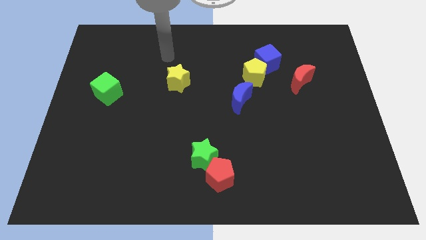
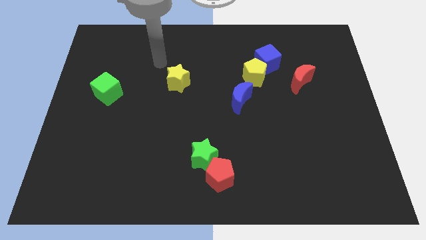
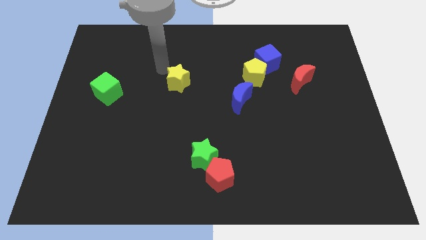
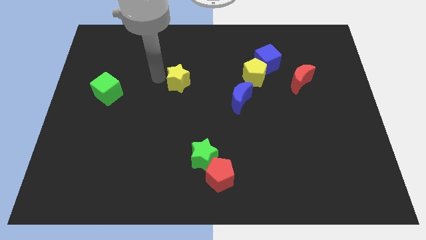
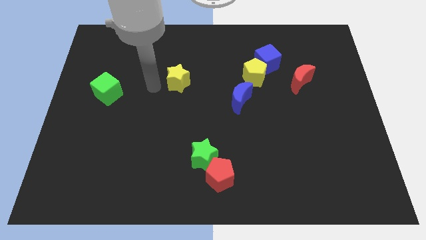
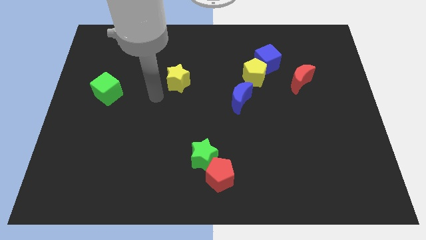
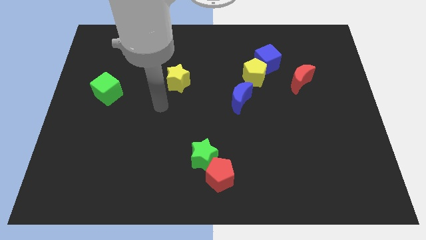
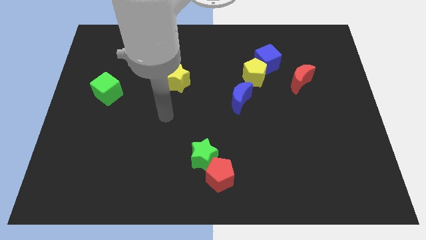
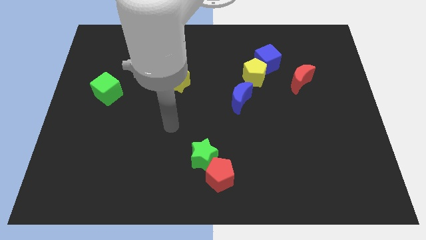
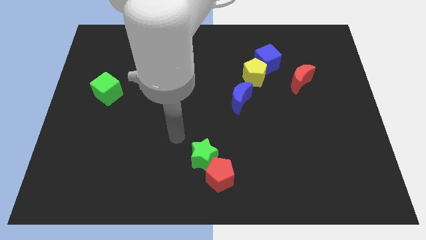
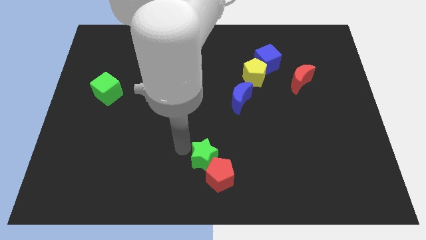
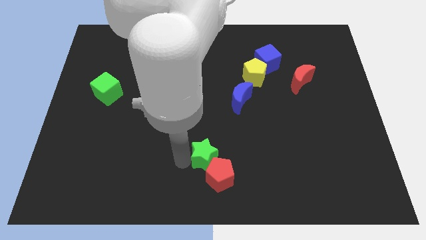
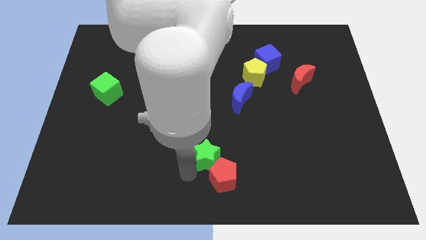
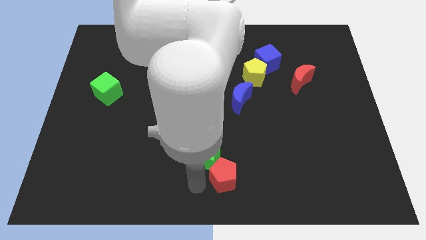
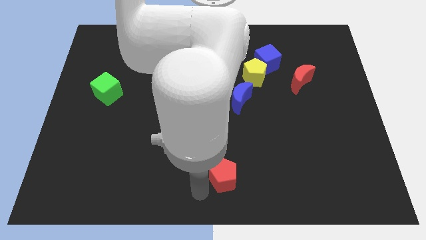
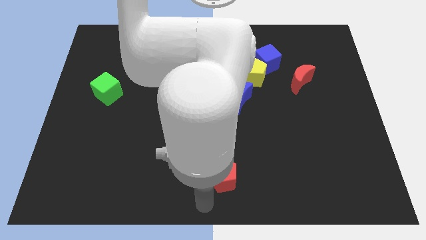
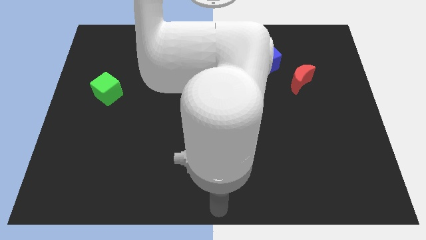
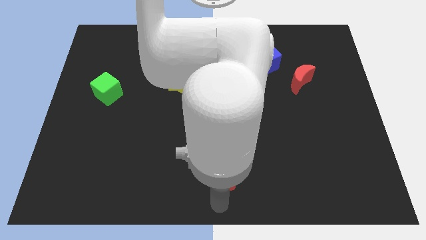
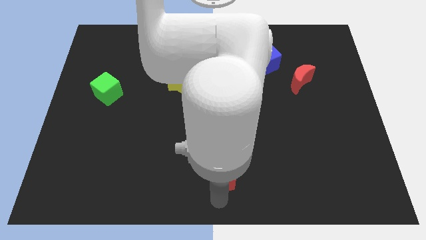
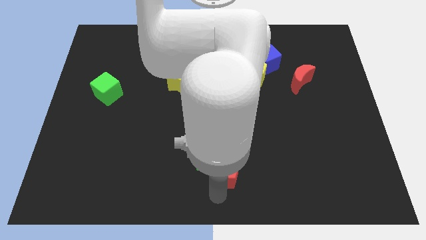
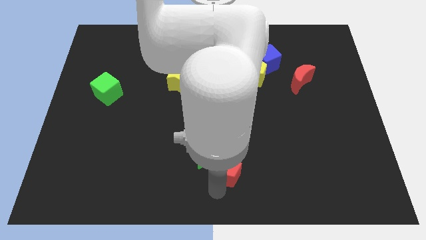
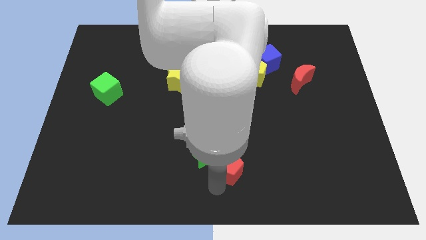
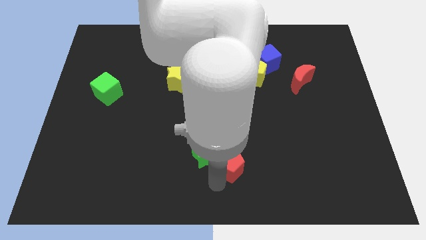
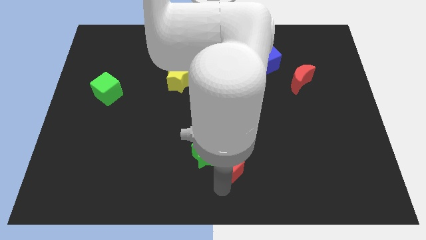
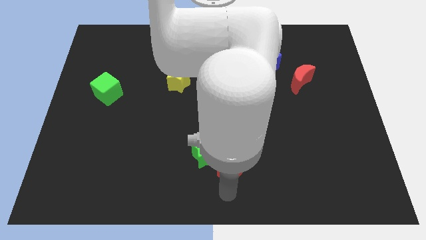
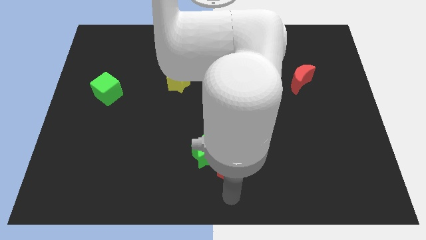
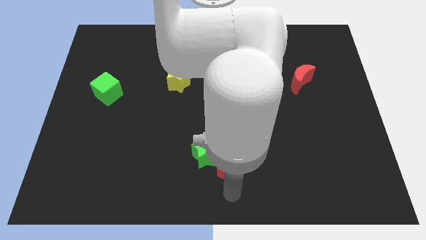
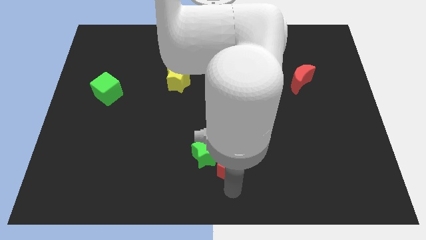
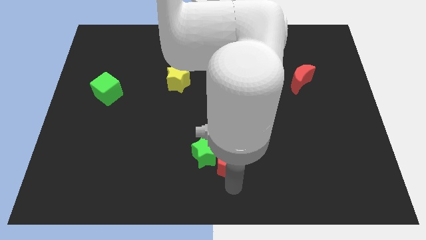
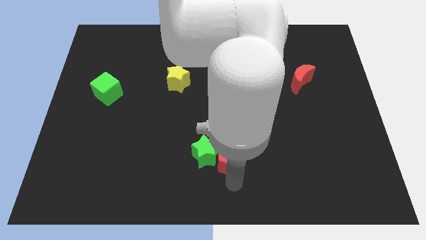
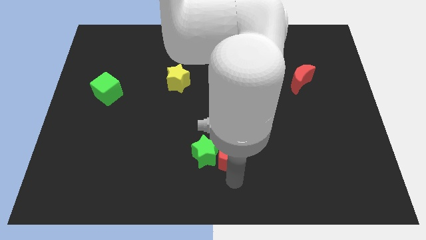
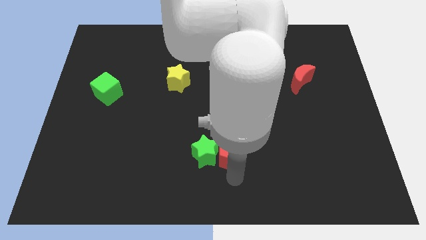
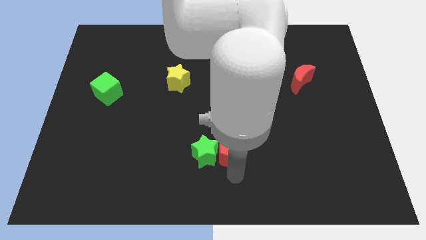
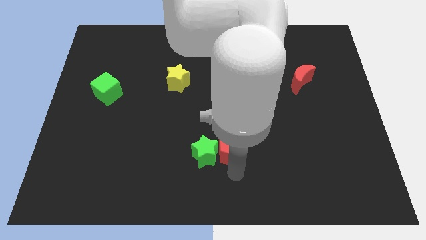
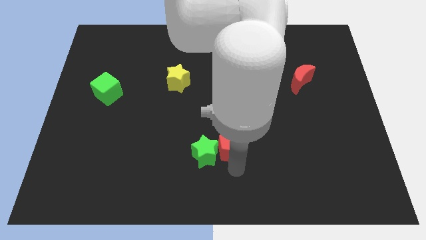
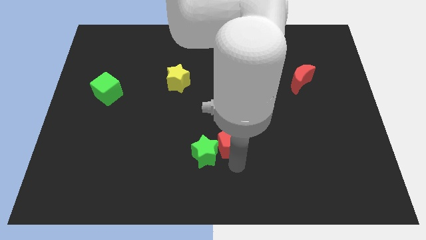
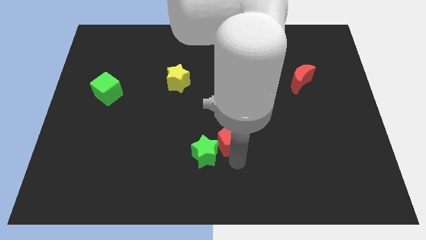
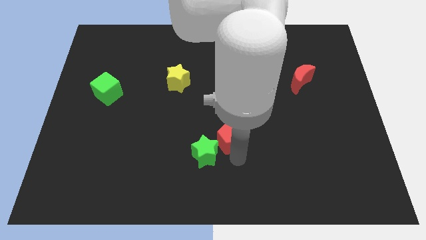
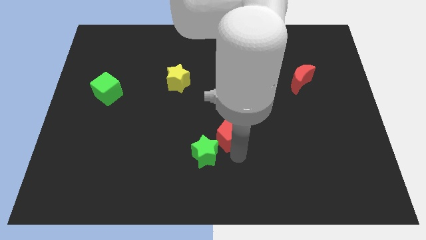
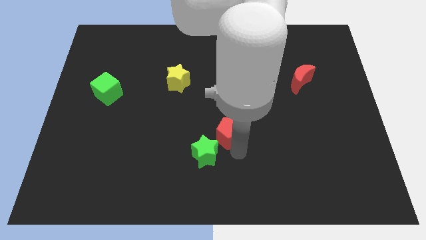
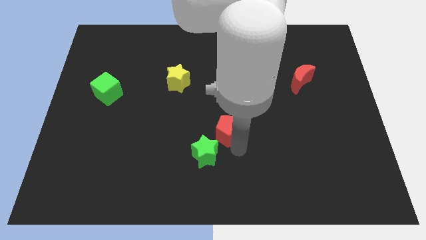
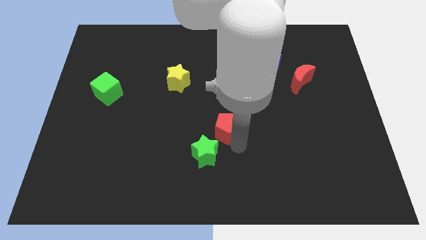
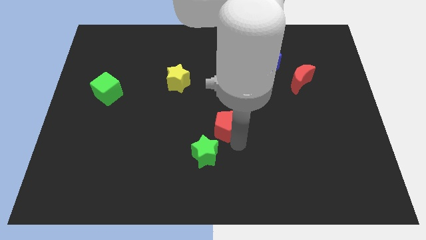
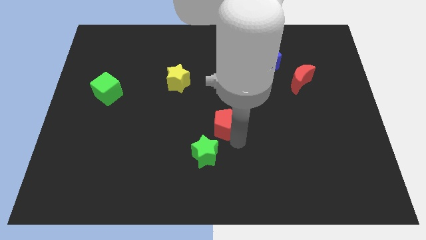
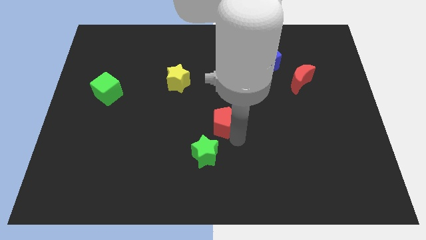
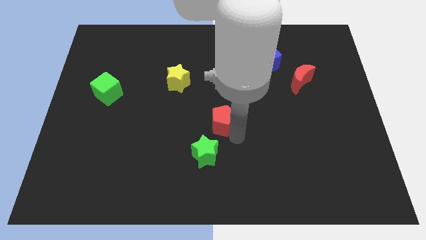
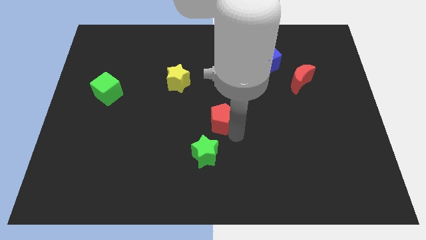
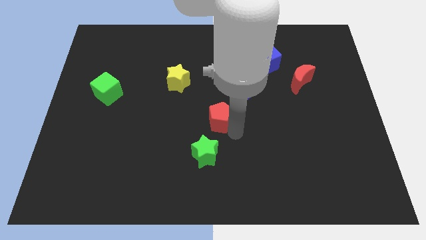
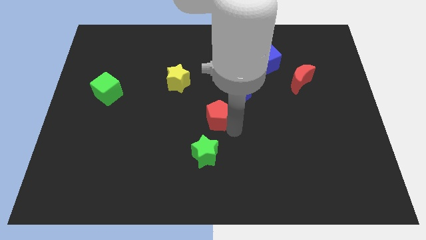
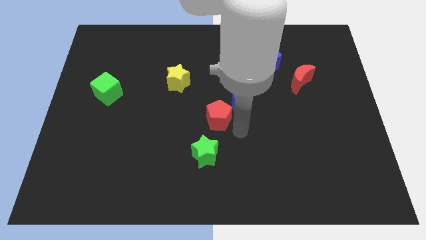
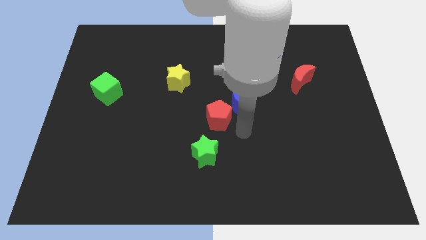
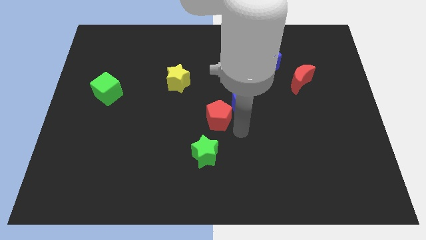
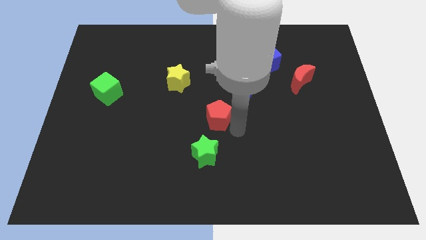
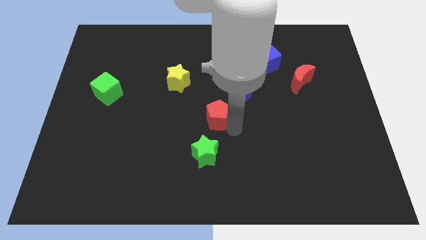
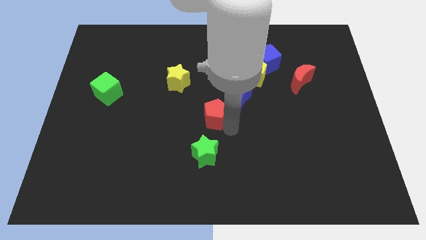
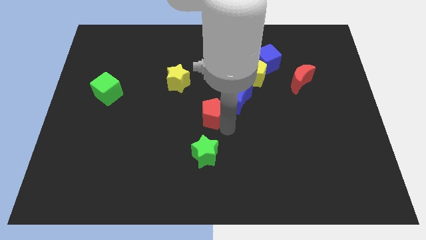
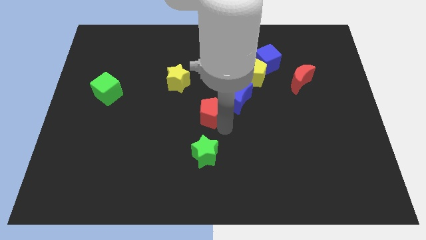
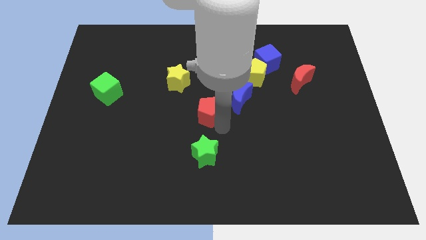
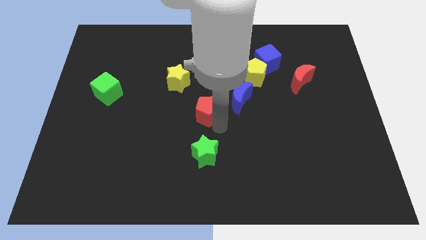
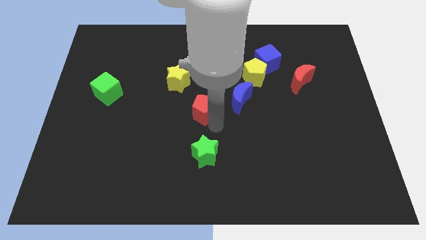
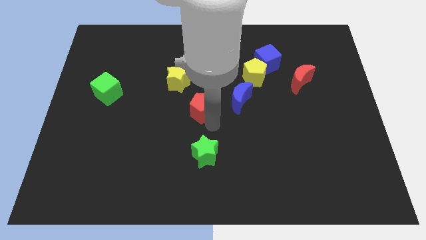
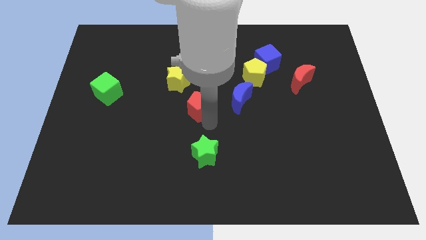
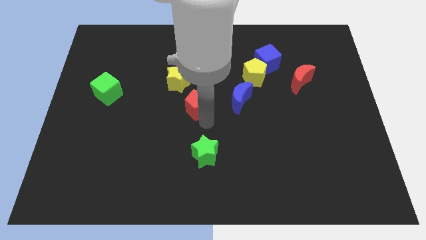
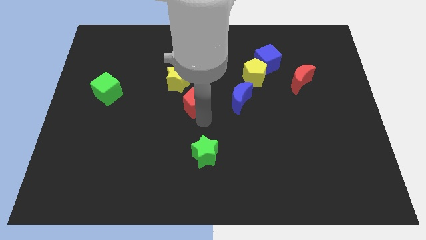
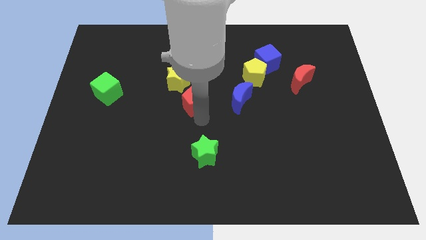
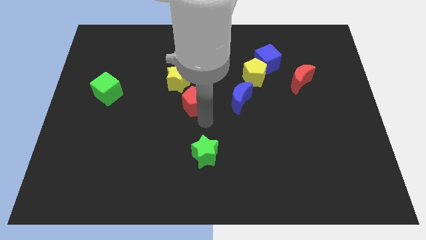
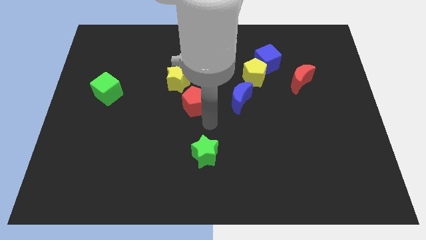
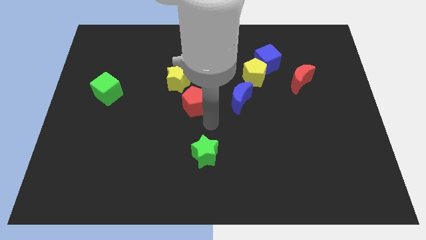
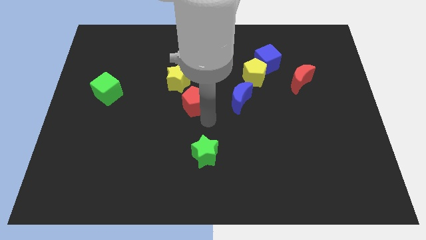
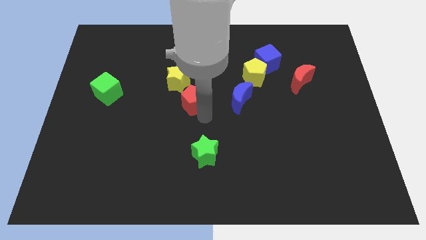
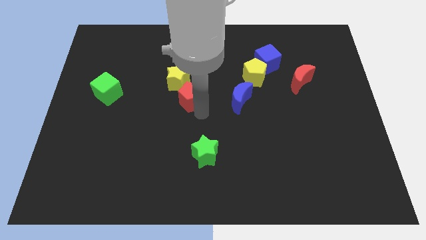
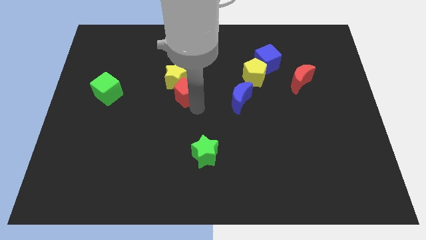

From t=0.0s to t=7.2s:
move the red pentagon towards the yellow star
